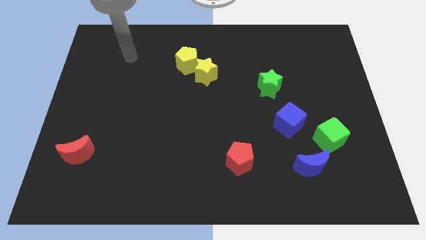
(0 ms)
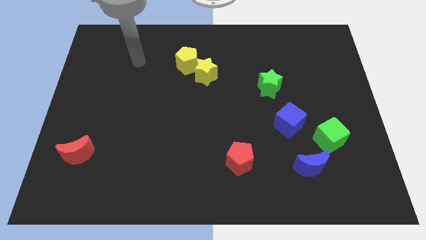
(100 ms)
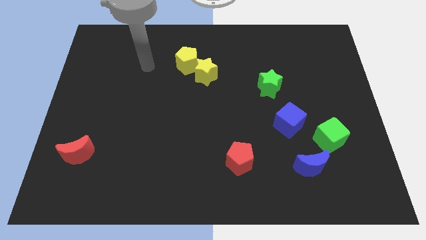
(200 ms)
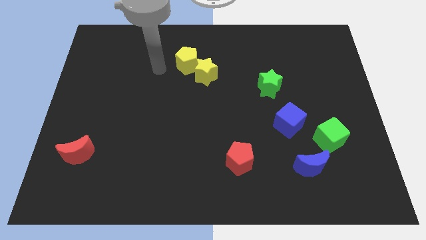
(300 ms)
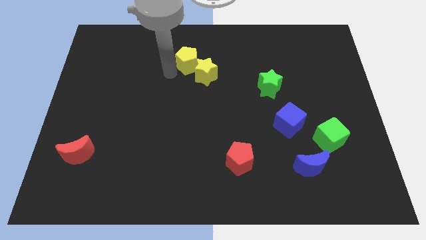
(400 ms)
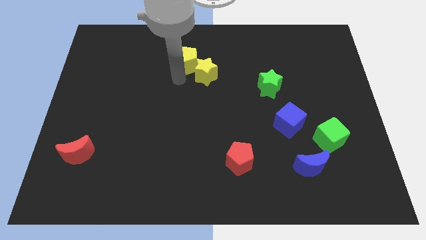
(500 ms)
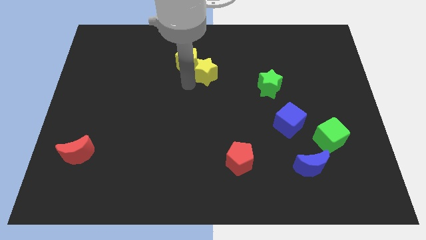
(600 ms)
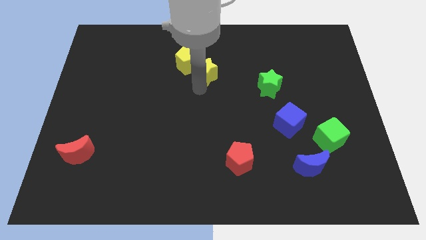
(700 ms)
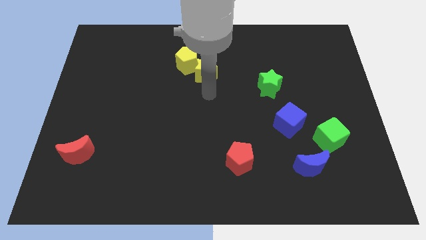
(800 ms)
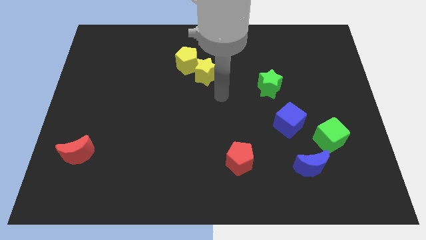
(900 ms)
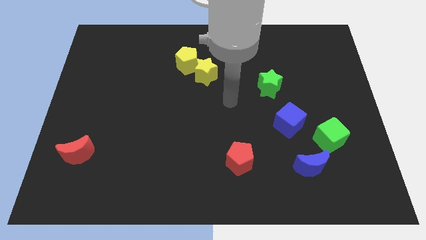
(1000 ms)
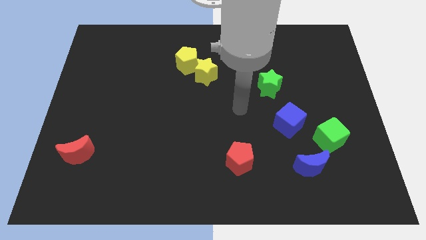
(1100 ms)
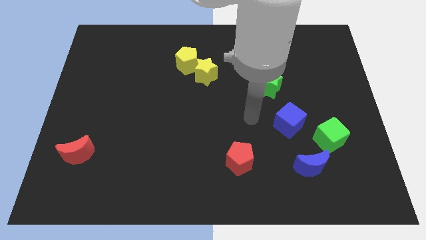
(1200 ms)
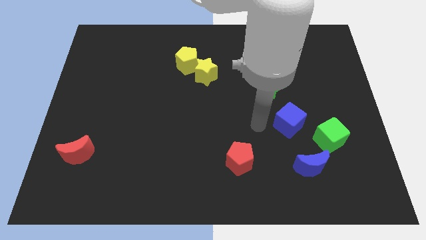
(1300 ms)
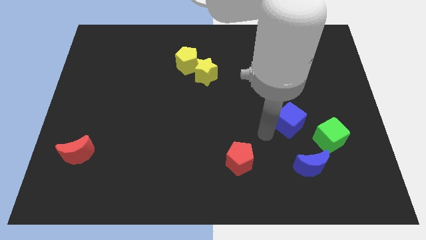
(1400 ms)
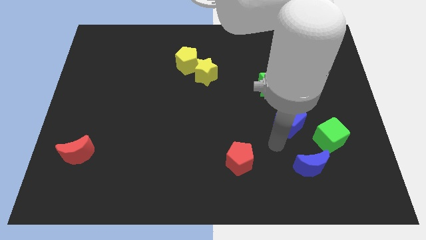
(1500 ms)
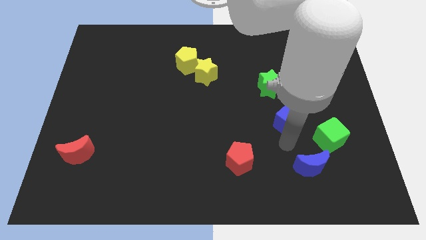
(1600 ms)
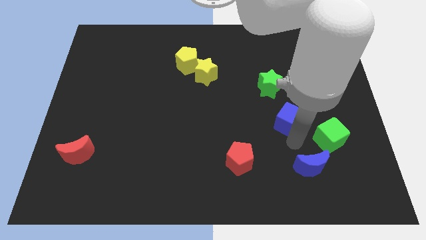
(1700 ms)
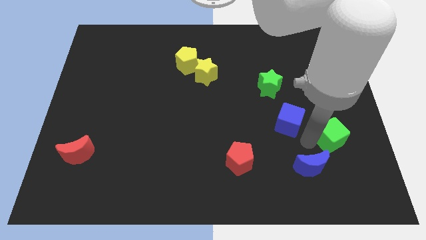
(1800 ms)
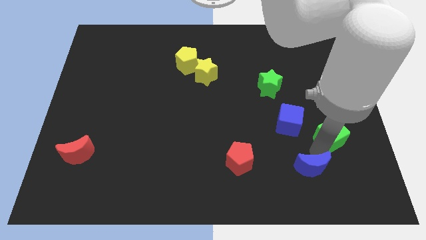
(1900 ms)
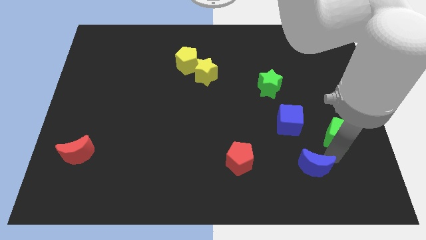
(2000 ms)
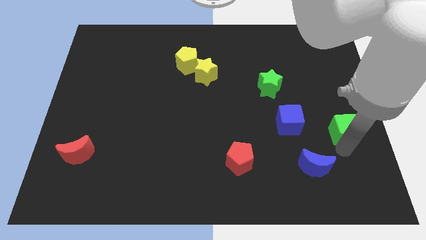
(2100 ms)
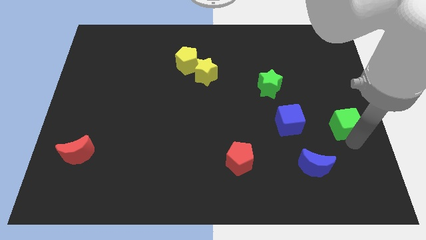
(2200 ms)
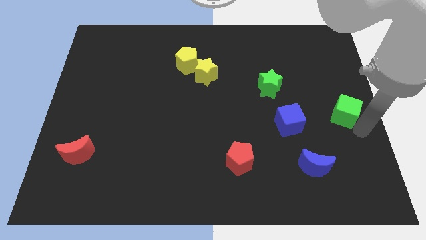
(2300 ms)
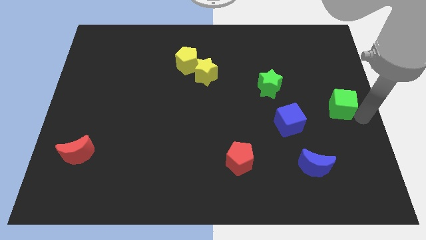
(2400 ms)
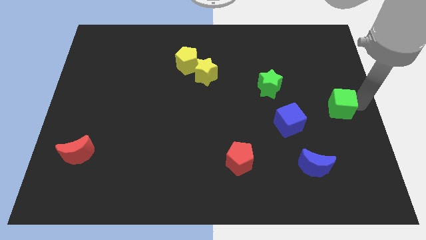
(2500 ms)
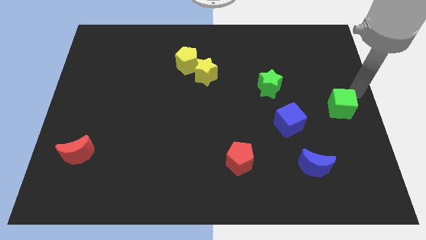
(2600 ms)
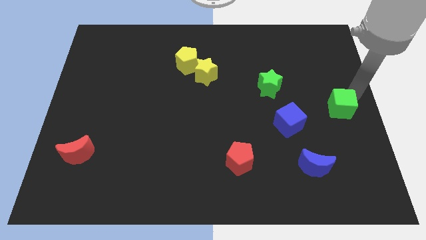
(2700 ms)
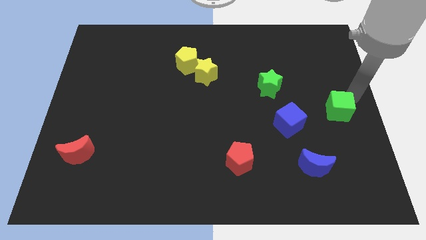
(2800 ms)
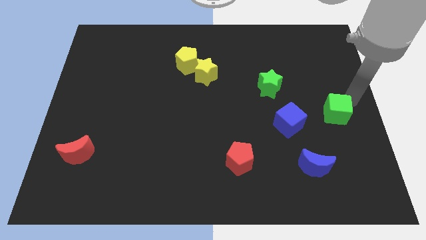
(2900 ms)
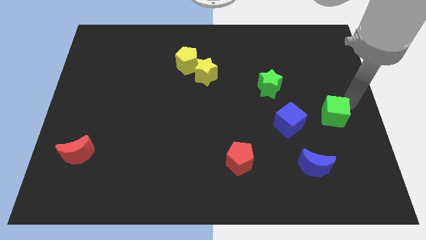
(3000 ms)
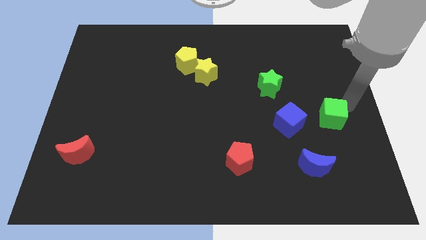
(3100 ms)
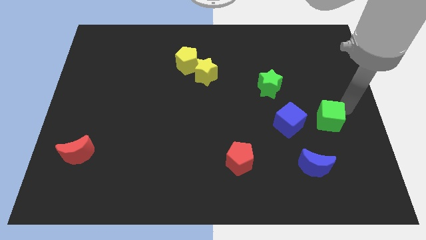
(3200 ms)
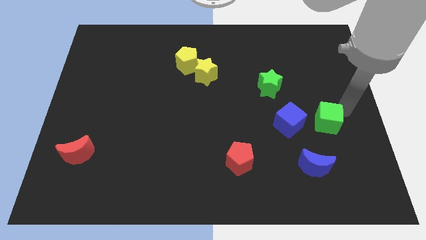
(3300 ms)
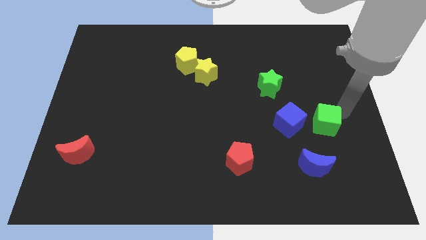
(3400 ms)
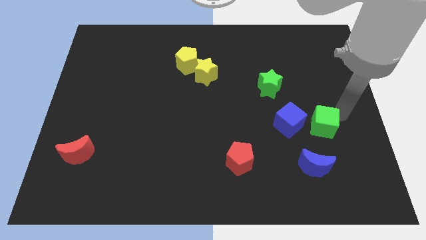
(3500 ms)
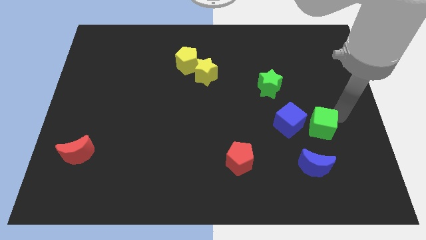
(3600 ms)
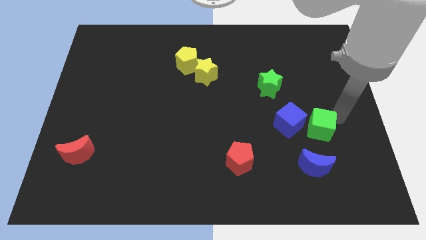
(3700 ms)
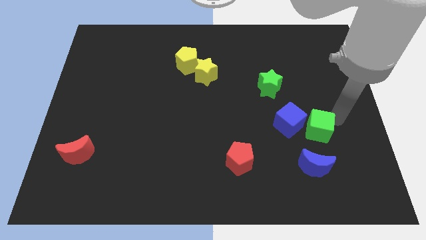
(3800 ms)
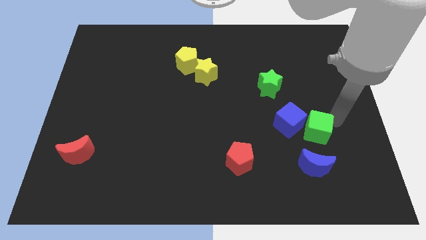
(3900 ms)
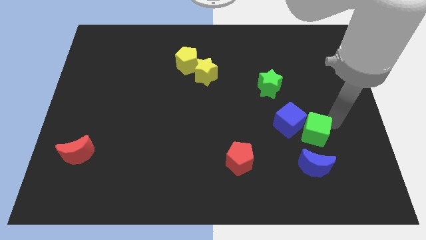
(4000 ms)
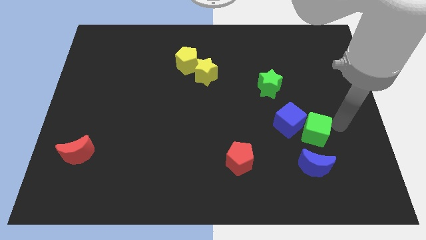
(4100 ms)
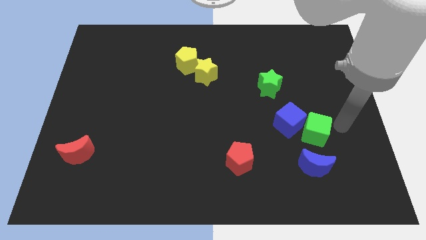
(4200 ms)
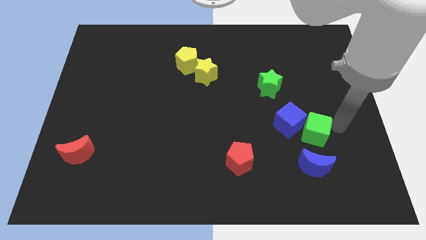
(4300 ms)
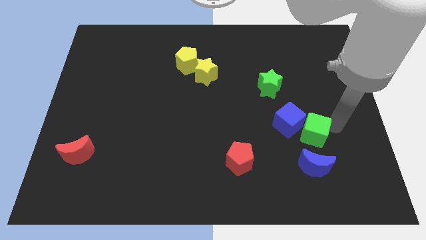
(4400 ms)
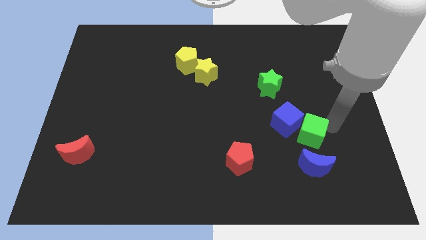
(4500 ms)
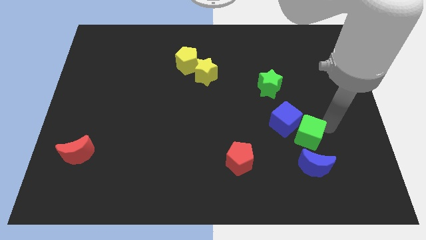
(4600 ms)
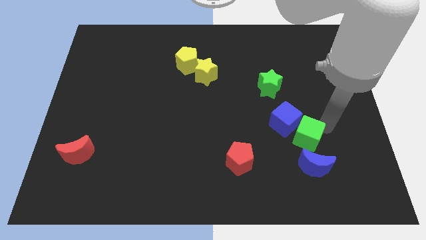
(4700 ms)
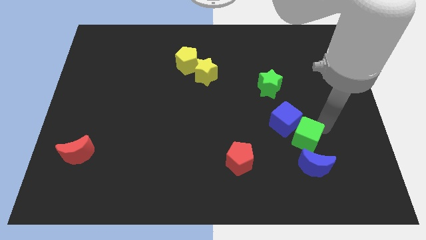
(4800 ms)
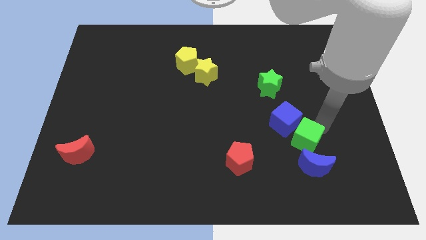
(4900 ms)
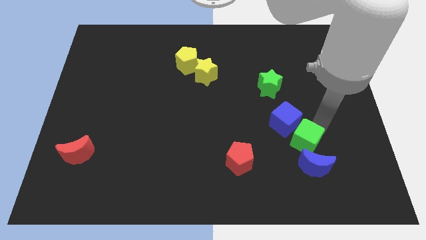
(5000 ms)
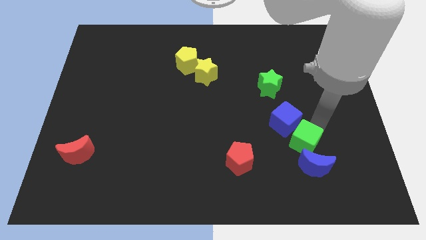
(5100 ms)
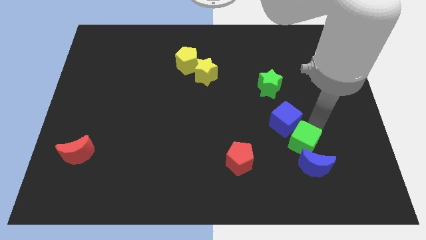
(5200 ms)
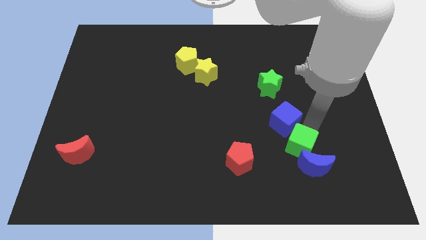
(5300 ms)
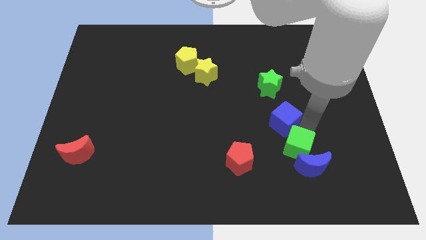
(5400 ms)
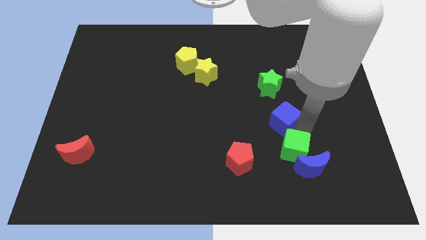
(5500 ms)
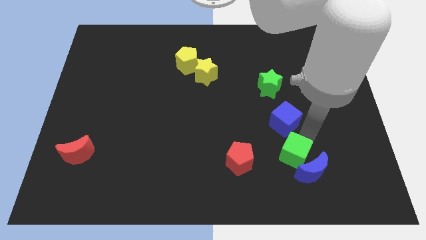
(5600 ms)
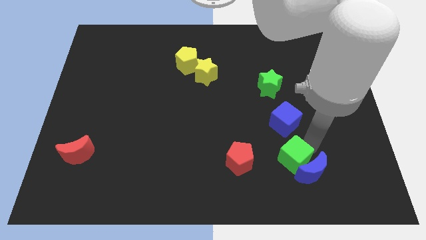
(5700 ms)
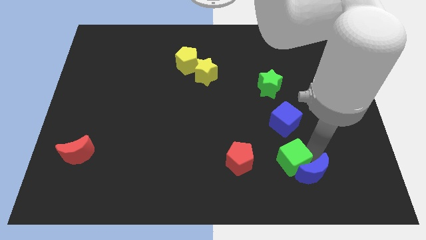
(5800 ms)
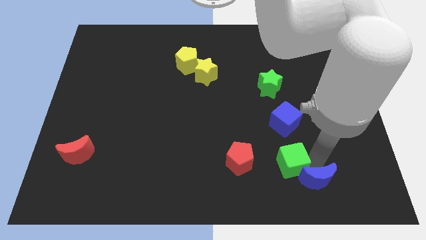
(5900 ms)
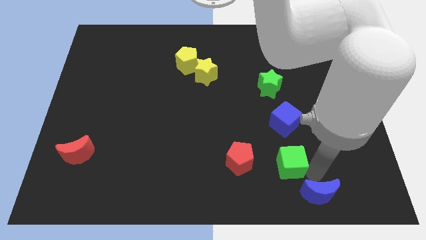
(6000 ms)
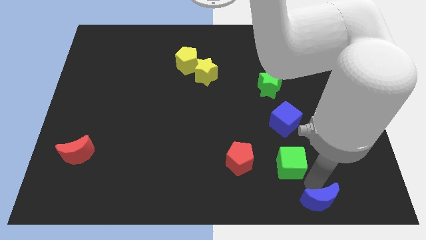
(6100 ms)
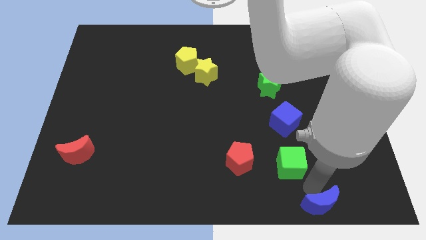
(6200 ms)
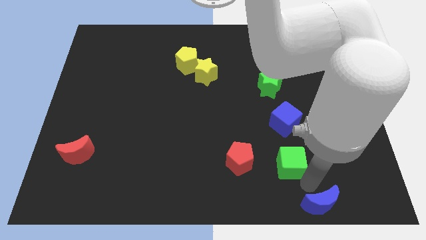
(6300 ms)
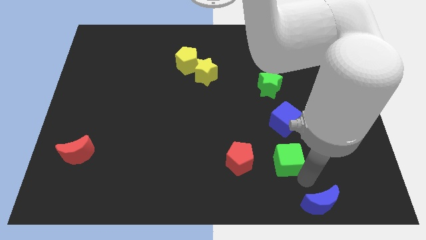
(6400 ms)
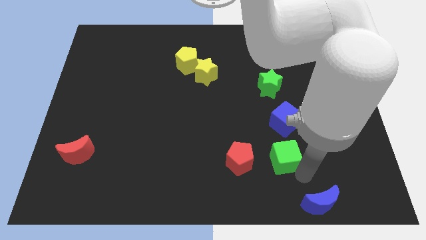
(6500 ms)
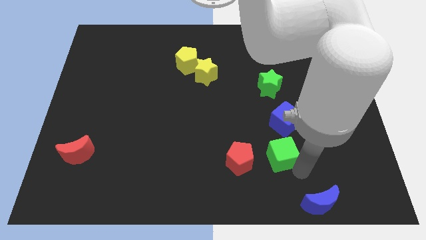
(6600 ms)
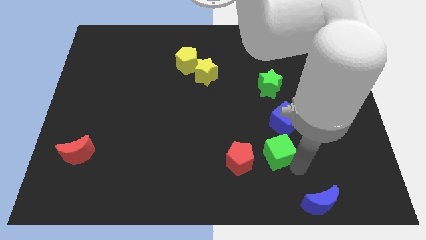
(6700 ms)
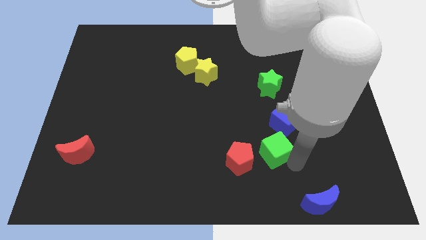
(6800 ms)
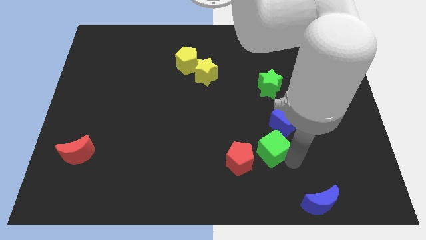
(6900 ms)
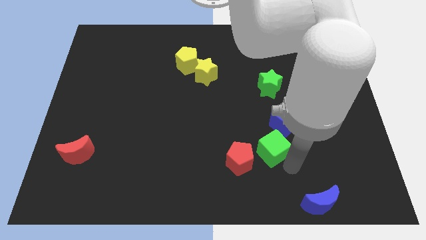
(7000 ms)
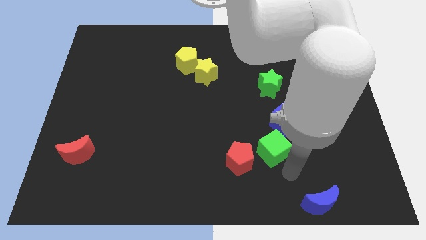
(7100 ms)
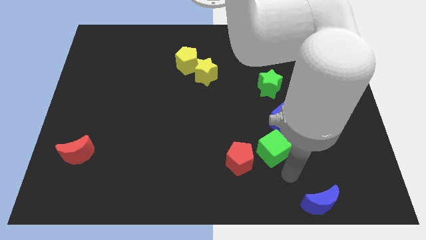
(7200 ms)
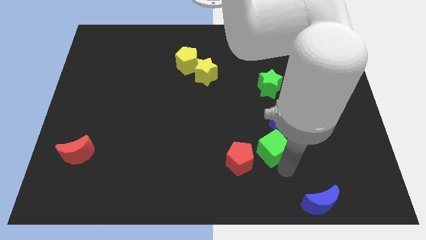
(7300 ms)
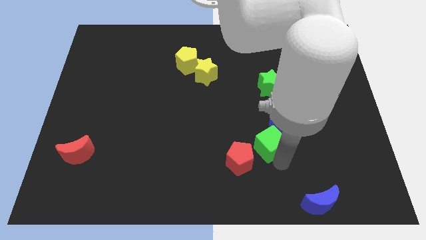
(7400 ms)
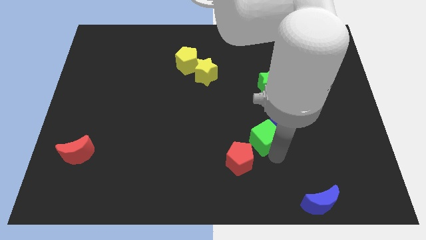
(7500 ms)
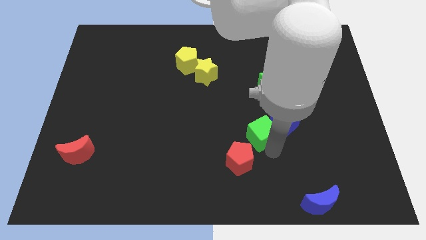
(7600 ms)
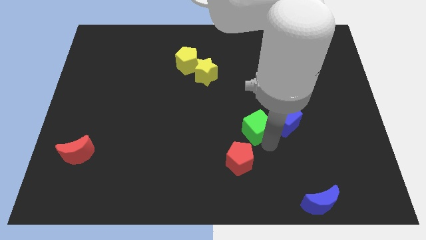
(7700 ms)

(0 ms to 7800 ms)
put the green cube to the top of the red pentagon
